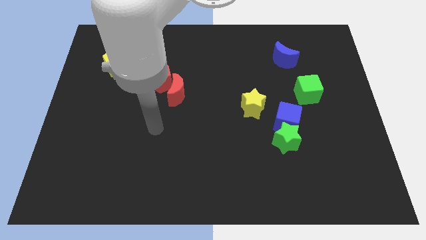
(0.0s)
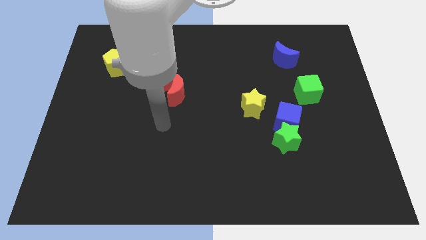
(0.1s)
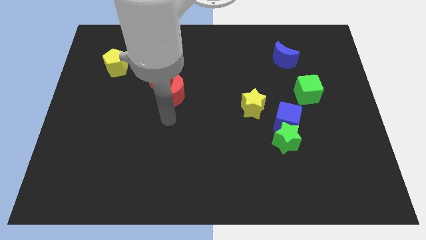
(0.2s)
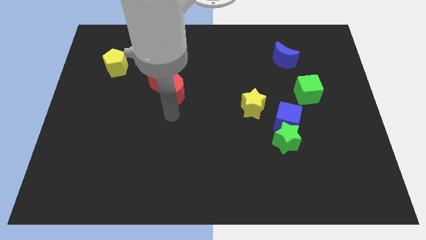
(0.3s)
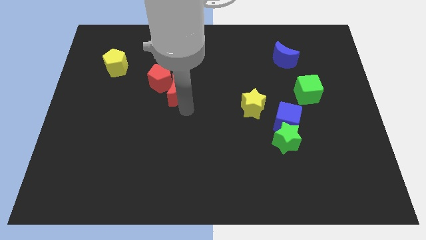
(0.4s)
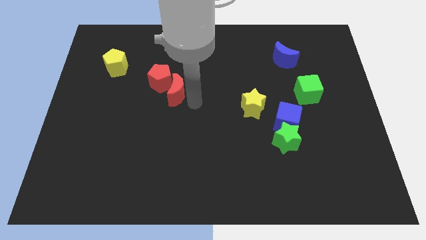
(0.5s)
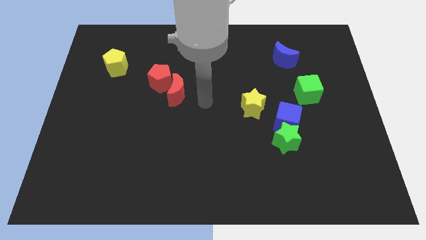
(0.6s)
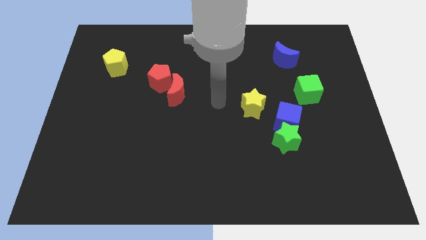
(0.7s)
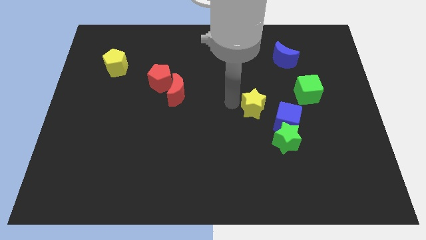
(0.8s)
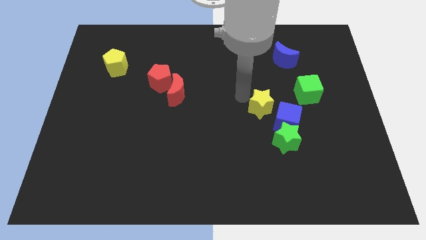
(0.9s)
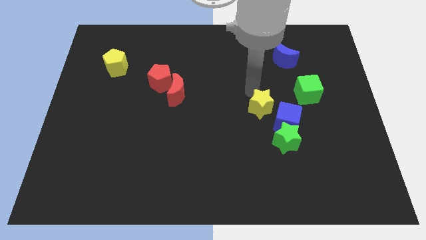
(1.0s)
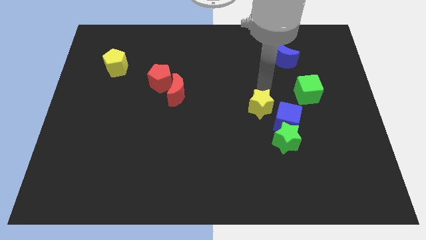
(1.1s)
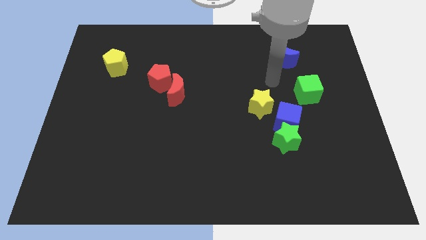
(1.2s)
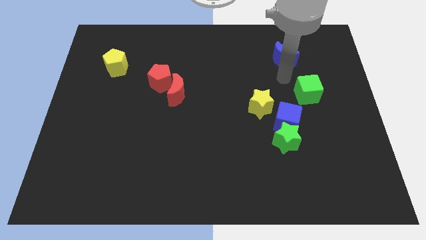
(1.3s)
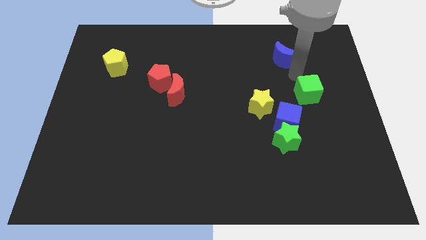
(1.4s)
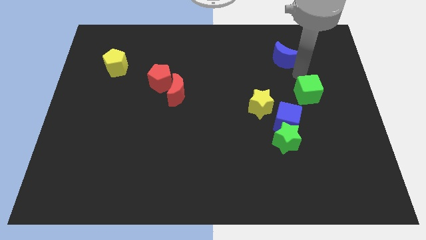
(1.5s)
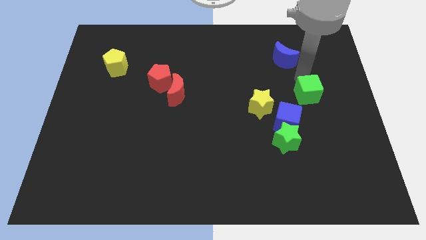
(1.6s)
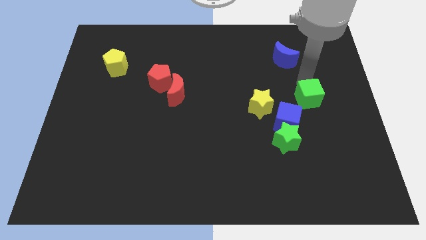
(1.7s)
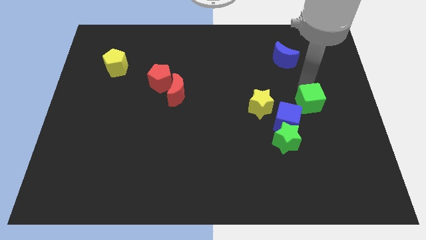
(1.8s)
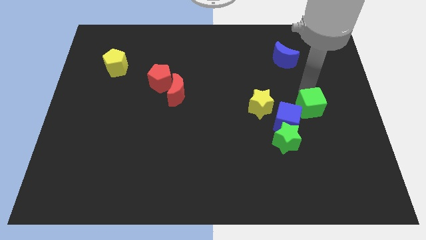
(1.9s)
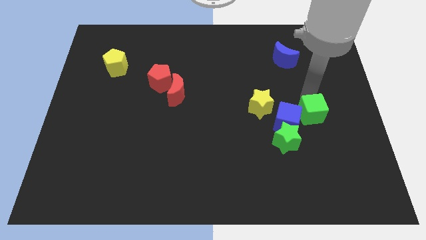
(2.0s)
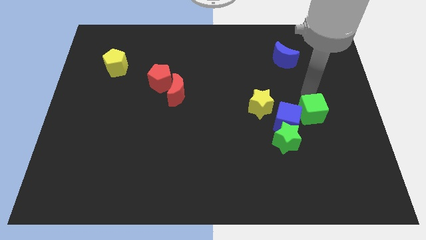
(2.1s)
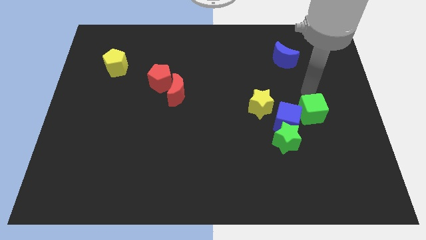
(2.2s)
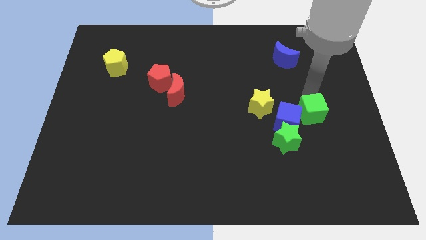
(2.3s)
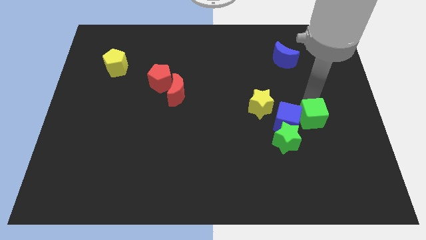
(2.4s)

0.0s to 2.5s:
move the green cube a bit down

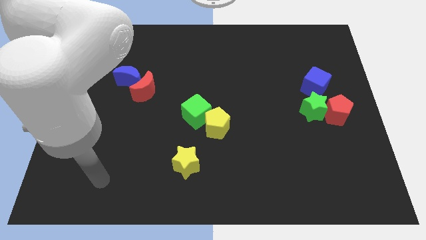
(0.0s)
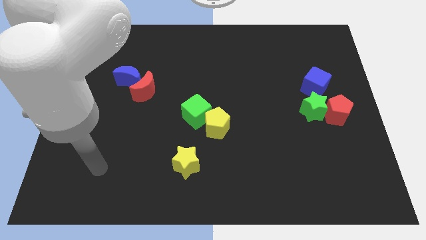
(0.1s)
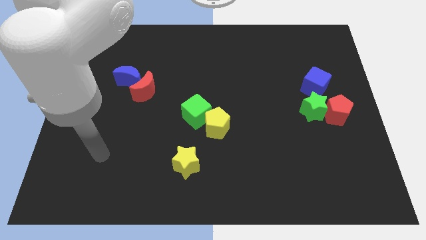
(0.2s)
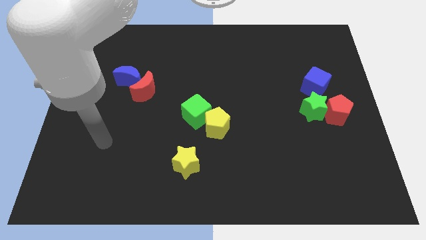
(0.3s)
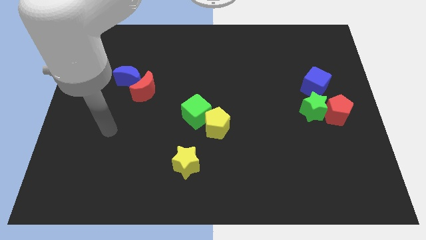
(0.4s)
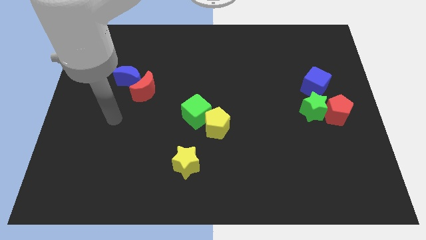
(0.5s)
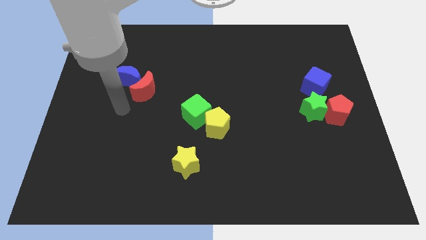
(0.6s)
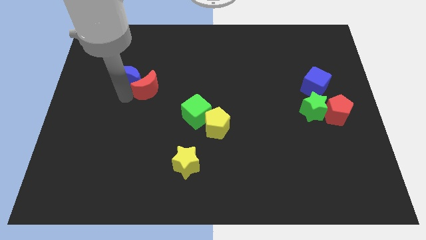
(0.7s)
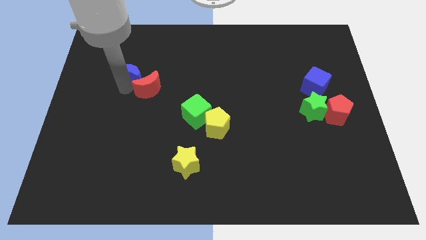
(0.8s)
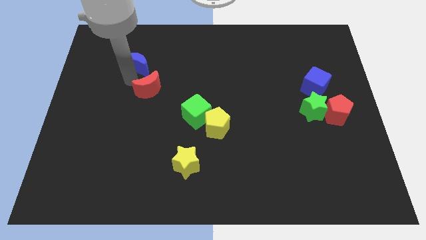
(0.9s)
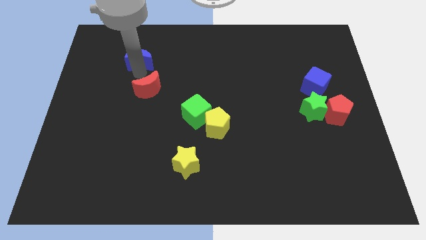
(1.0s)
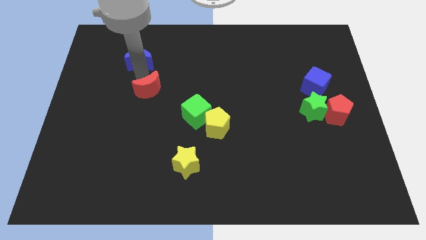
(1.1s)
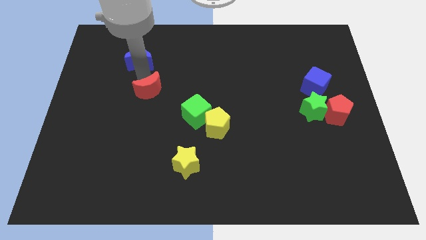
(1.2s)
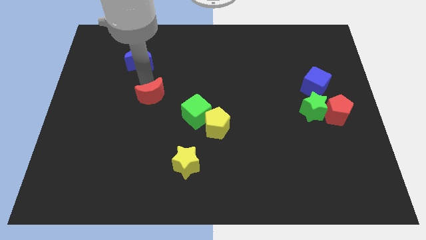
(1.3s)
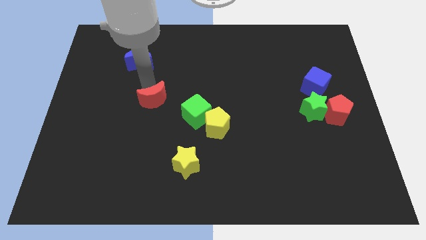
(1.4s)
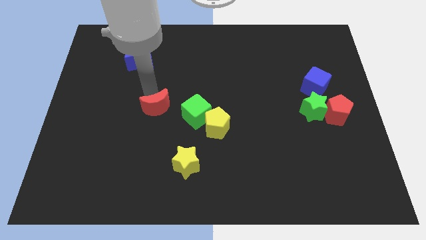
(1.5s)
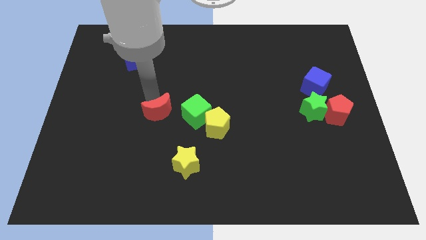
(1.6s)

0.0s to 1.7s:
move the red moon a little bit diagonally down and right

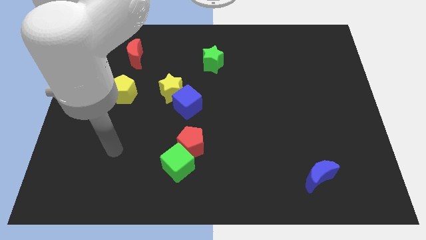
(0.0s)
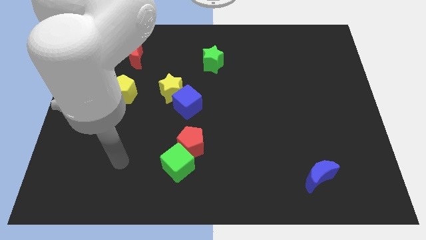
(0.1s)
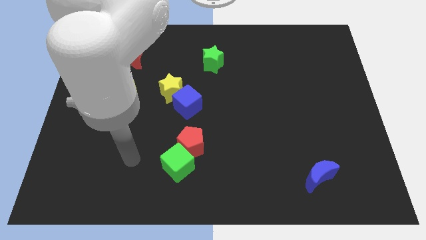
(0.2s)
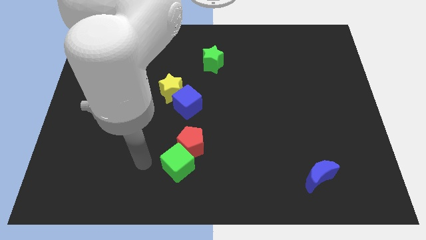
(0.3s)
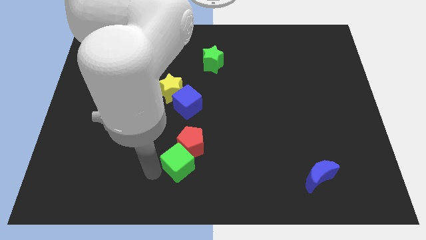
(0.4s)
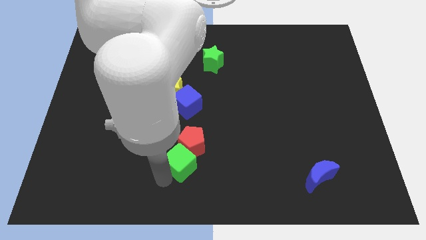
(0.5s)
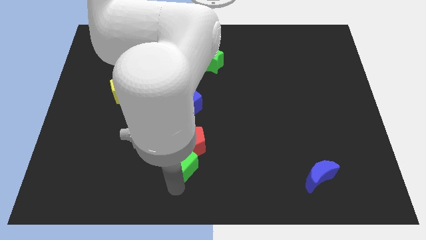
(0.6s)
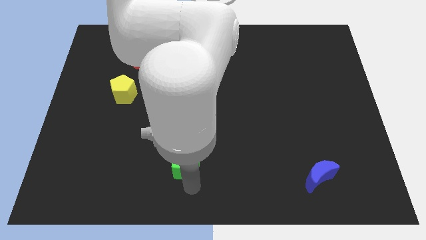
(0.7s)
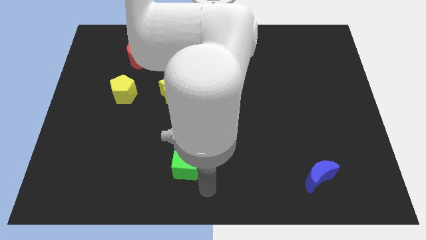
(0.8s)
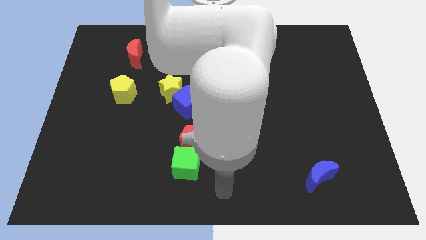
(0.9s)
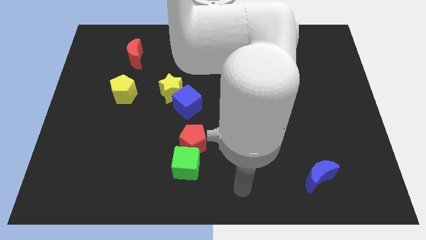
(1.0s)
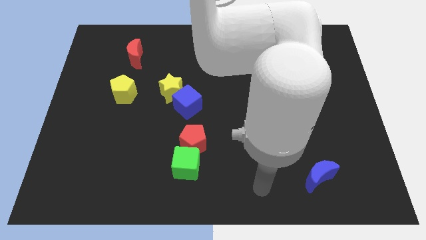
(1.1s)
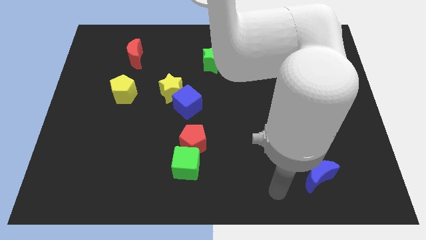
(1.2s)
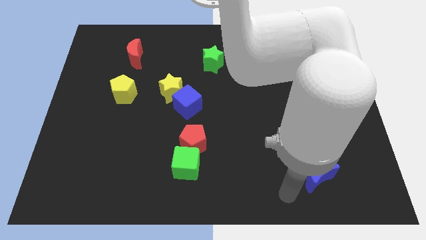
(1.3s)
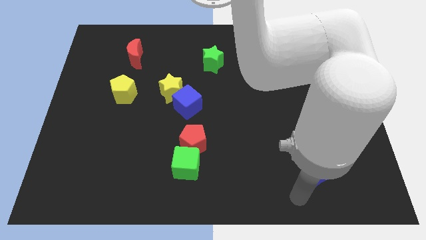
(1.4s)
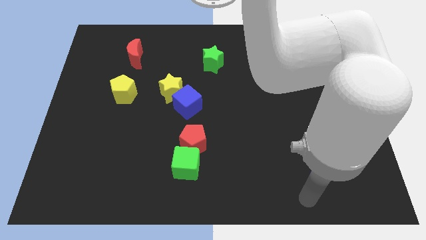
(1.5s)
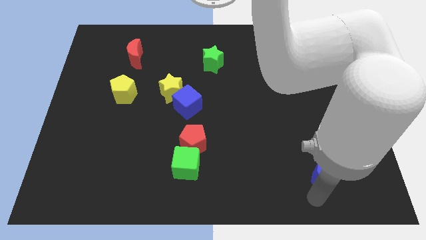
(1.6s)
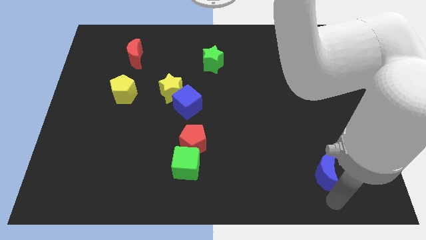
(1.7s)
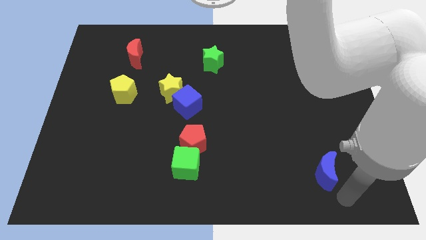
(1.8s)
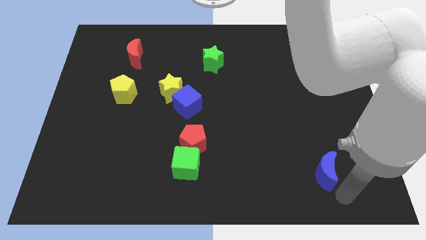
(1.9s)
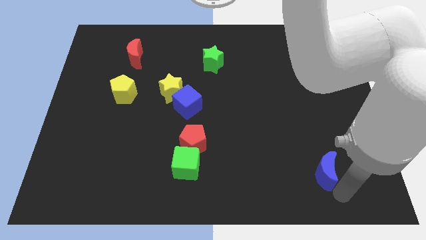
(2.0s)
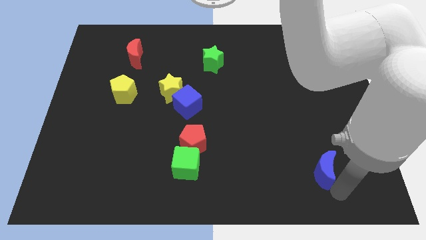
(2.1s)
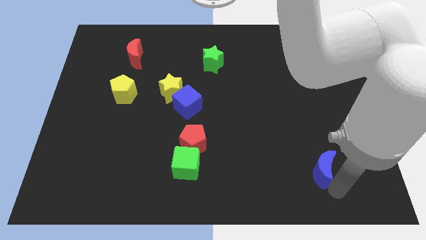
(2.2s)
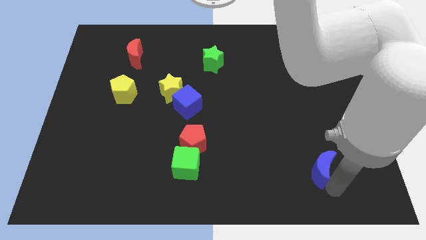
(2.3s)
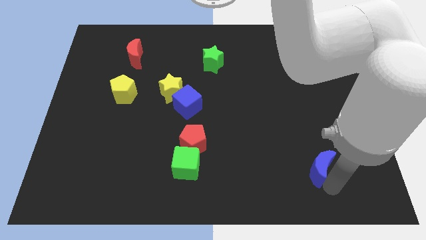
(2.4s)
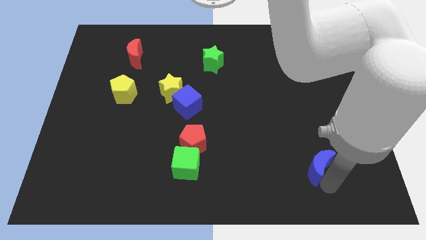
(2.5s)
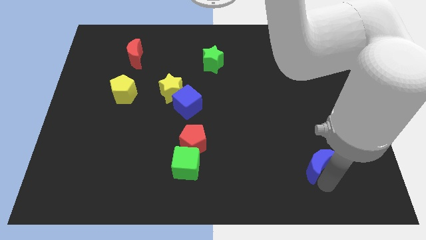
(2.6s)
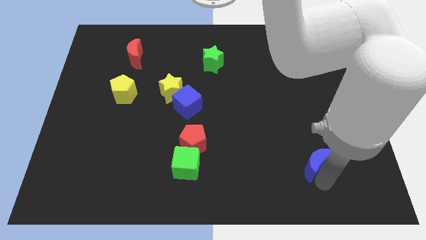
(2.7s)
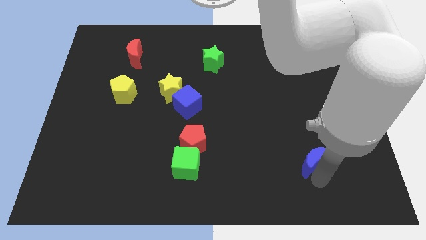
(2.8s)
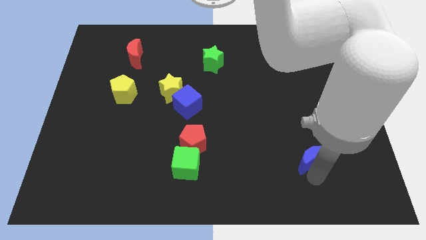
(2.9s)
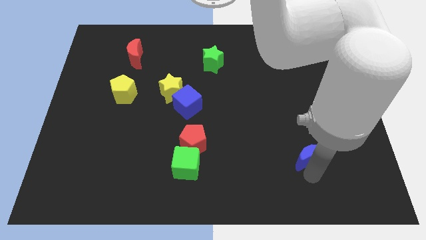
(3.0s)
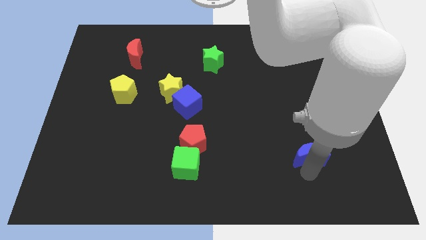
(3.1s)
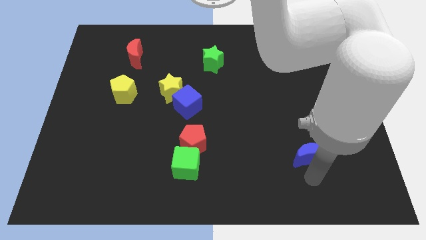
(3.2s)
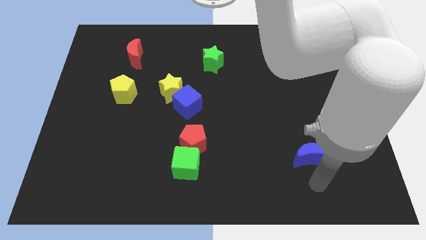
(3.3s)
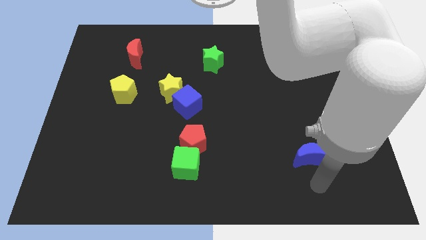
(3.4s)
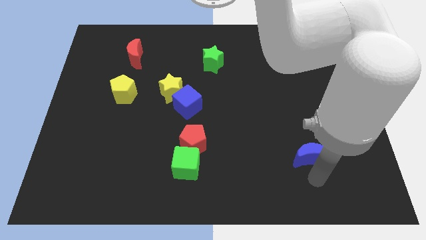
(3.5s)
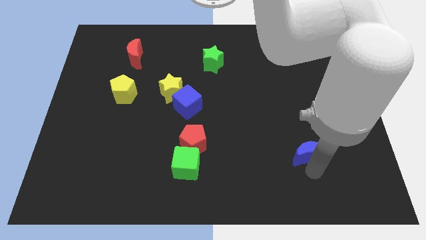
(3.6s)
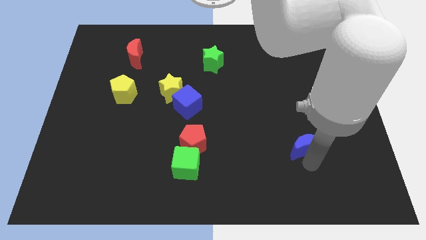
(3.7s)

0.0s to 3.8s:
slide the blue moon somewhat up
